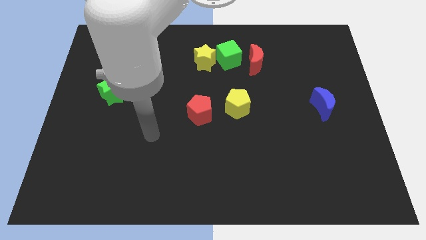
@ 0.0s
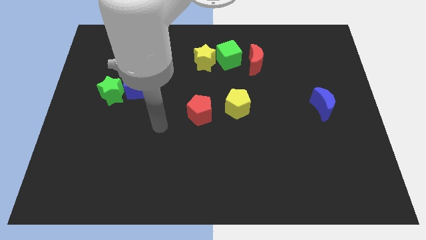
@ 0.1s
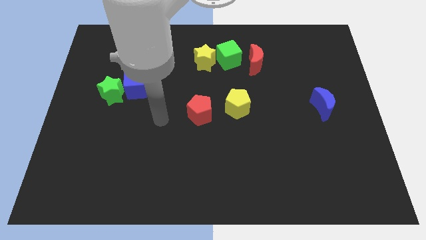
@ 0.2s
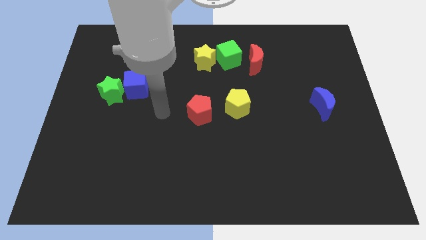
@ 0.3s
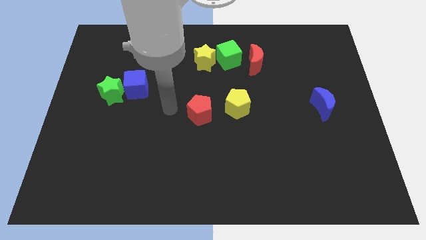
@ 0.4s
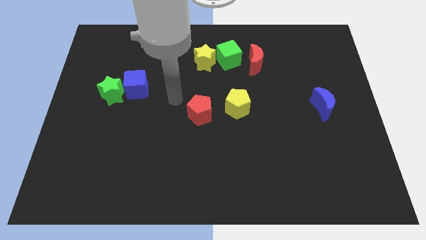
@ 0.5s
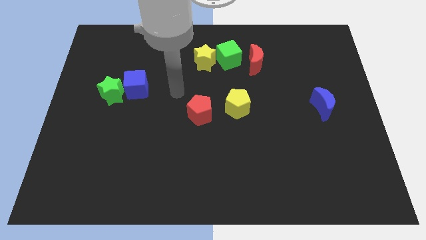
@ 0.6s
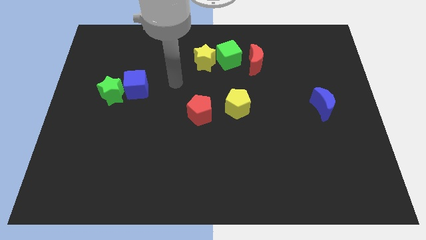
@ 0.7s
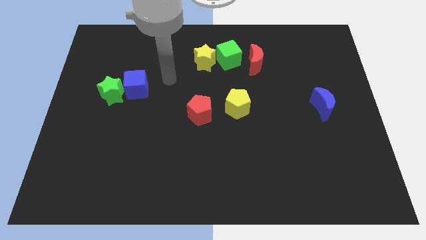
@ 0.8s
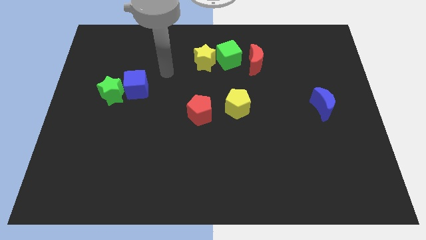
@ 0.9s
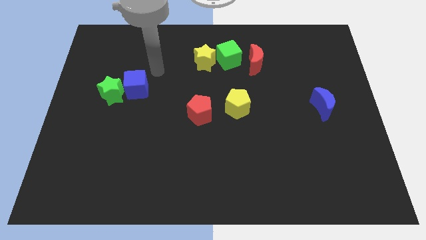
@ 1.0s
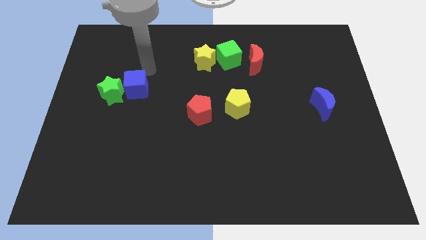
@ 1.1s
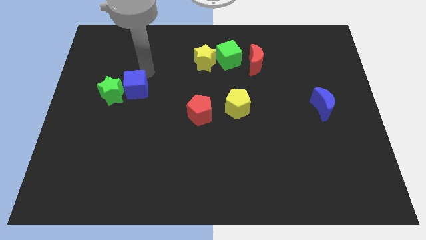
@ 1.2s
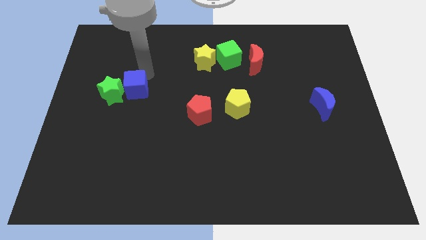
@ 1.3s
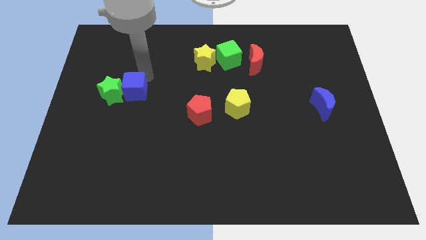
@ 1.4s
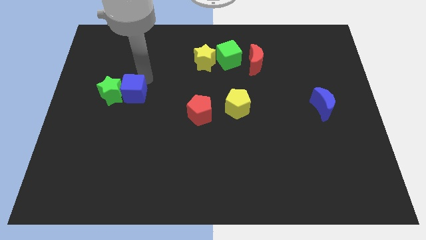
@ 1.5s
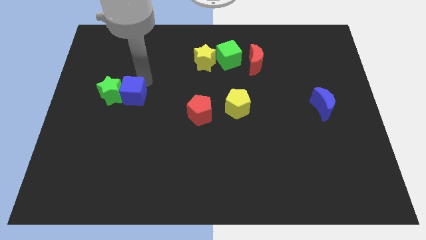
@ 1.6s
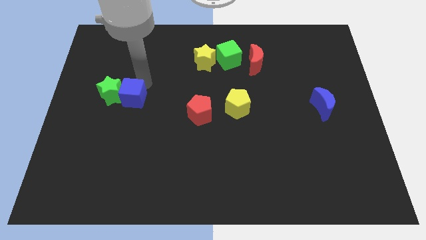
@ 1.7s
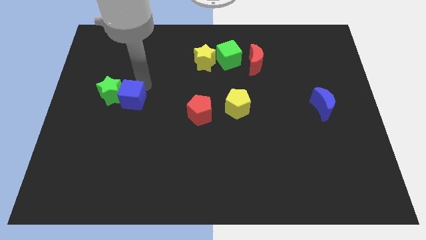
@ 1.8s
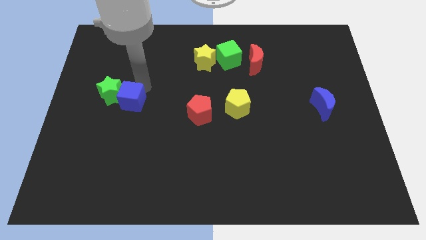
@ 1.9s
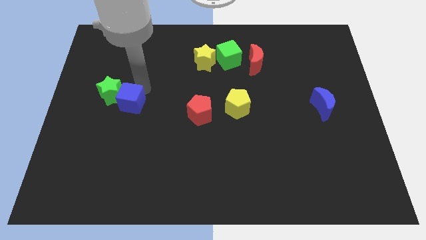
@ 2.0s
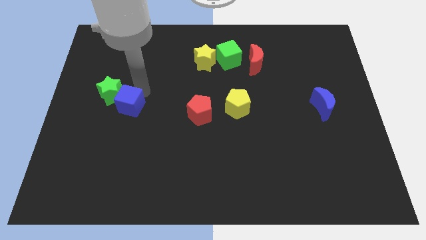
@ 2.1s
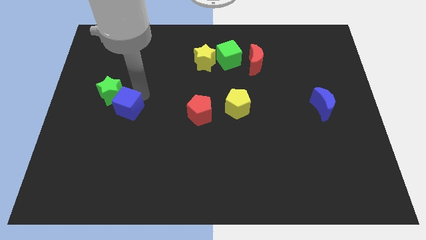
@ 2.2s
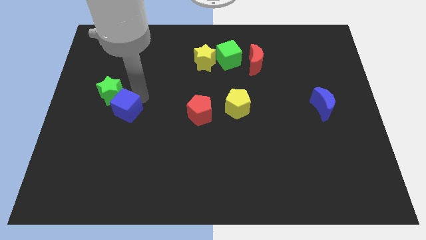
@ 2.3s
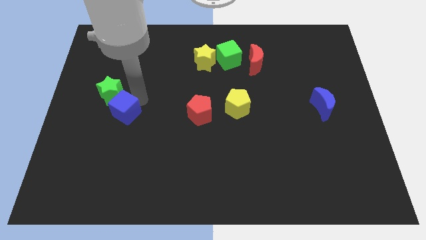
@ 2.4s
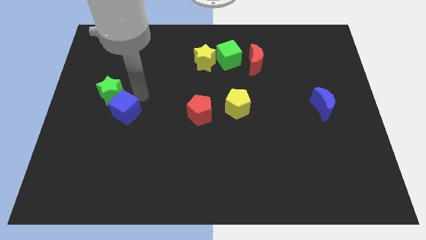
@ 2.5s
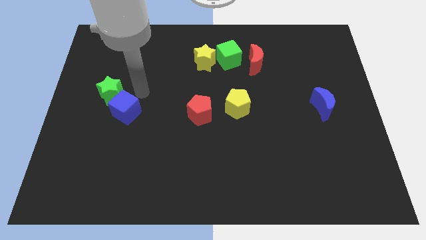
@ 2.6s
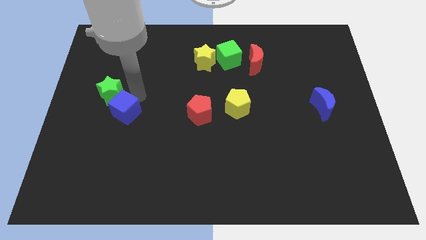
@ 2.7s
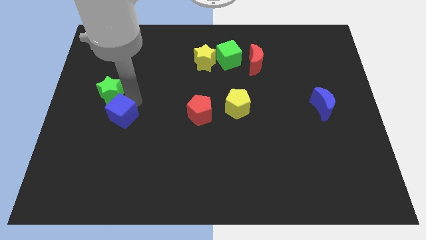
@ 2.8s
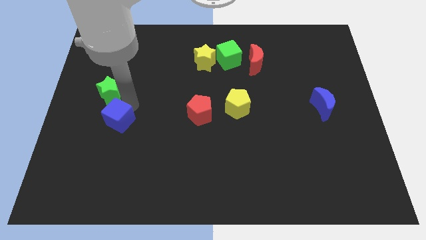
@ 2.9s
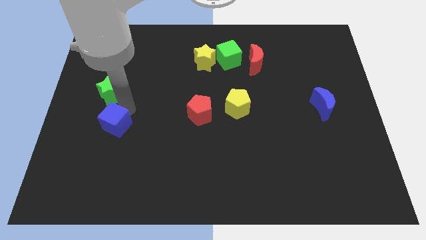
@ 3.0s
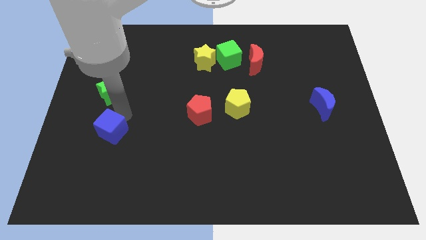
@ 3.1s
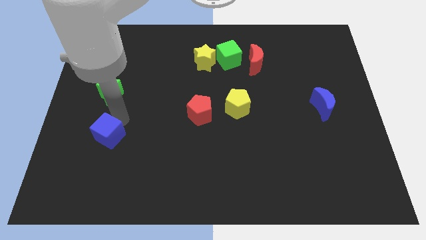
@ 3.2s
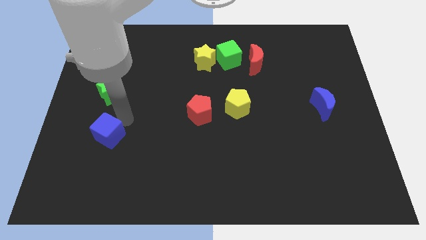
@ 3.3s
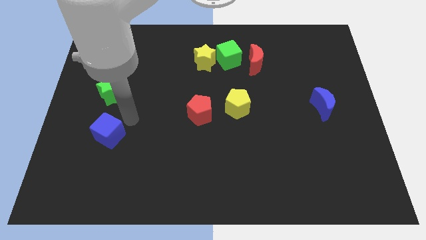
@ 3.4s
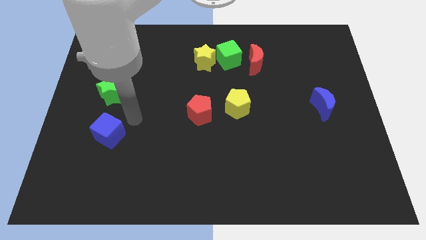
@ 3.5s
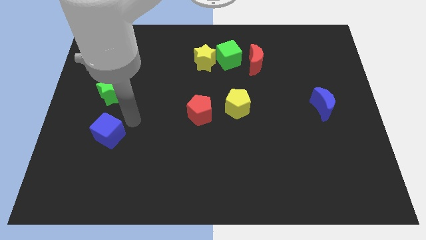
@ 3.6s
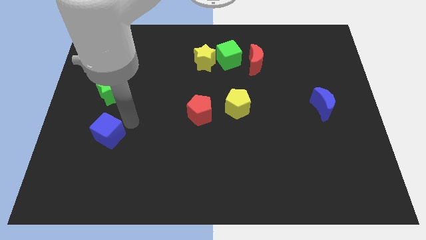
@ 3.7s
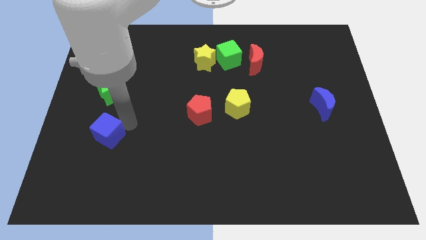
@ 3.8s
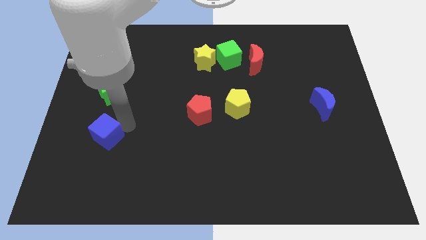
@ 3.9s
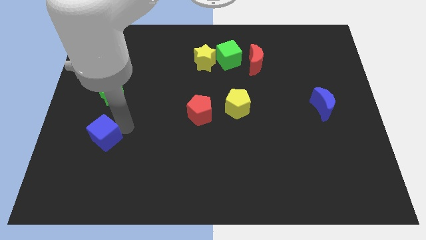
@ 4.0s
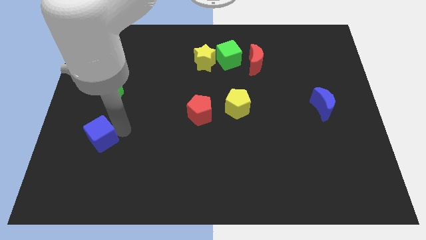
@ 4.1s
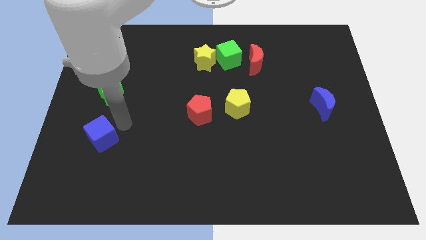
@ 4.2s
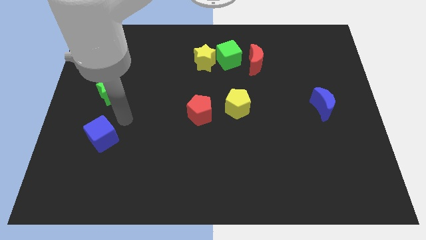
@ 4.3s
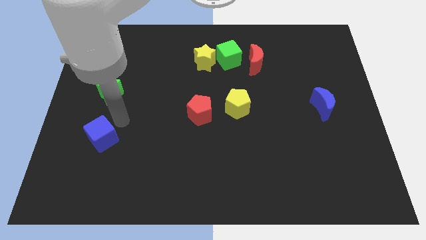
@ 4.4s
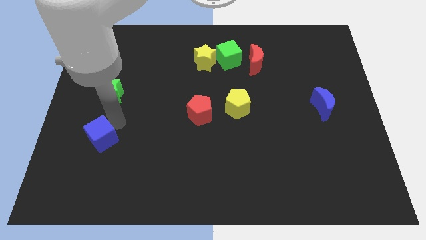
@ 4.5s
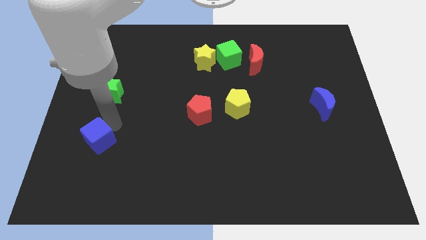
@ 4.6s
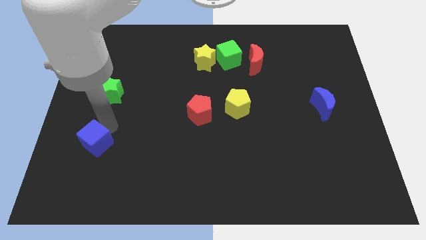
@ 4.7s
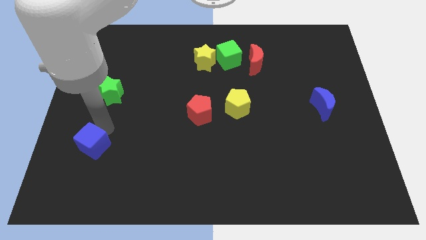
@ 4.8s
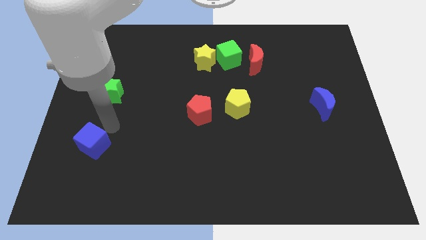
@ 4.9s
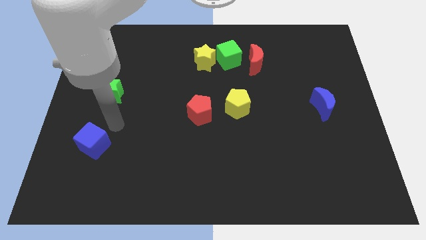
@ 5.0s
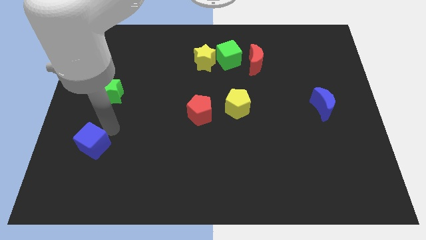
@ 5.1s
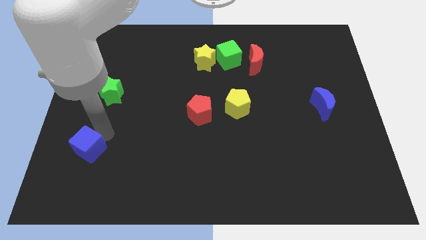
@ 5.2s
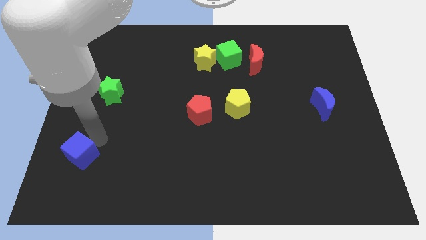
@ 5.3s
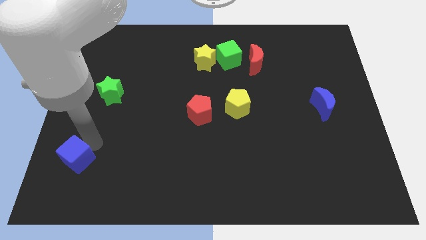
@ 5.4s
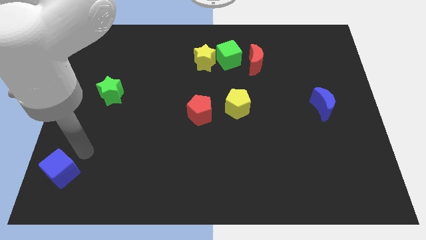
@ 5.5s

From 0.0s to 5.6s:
push the blue cube to the lower left corner

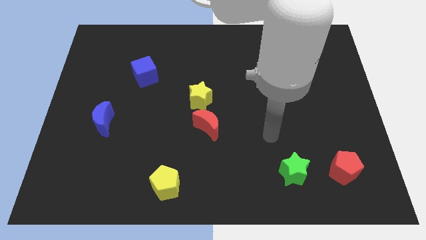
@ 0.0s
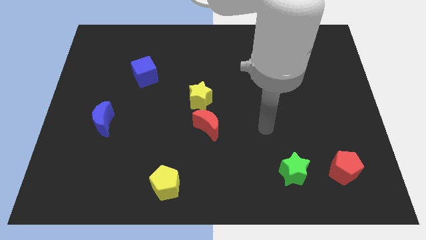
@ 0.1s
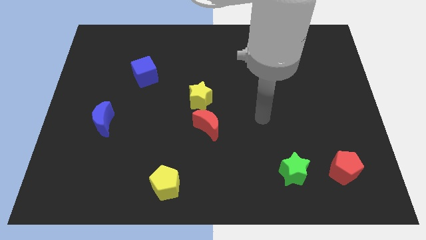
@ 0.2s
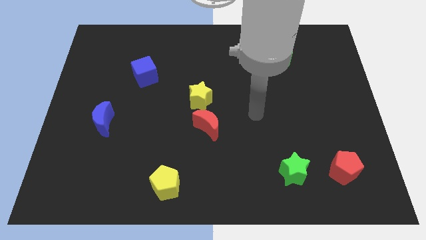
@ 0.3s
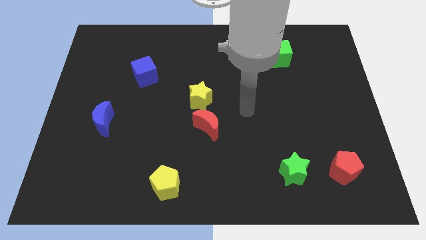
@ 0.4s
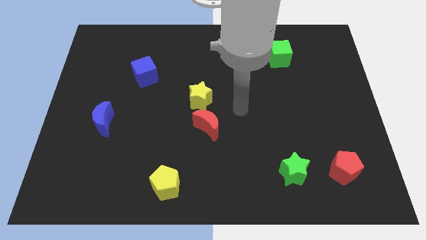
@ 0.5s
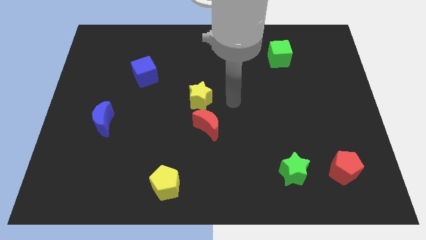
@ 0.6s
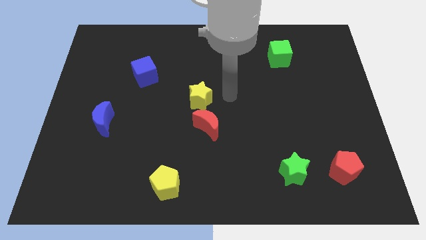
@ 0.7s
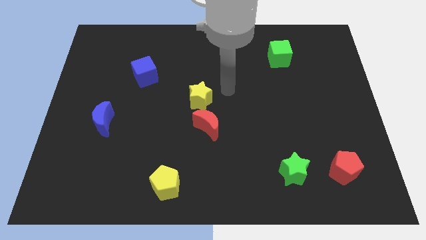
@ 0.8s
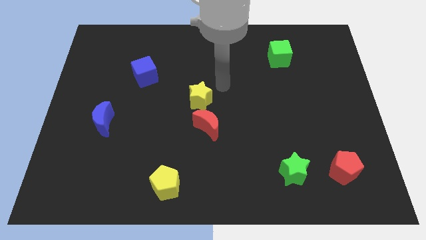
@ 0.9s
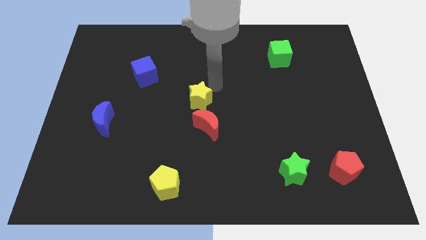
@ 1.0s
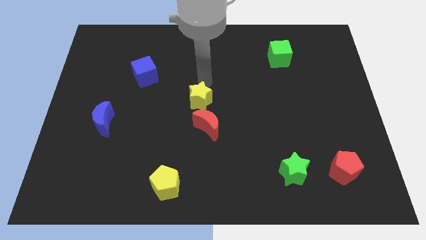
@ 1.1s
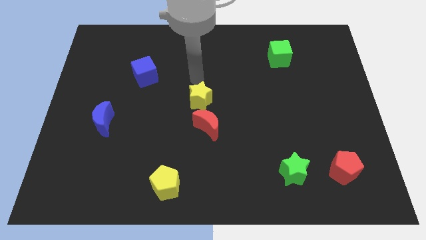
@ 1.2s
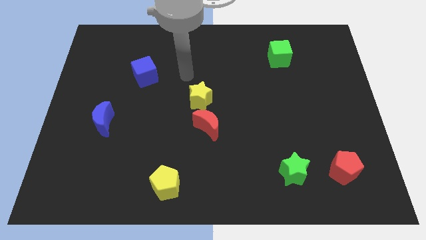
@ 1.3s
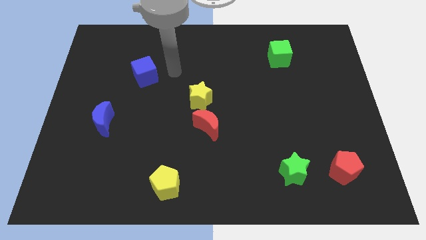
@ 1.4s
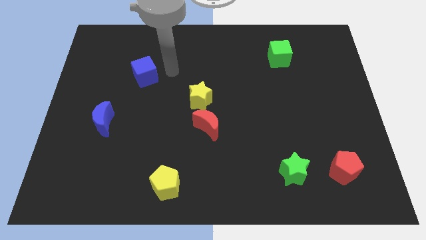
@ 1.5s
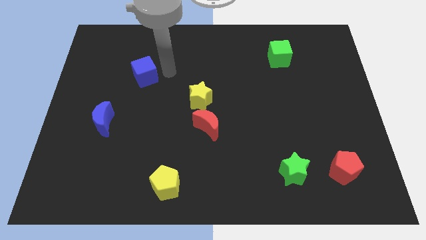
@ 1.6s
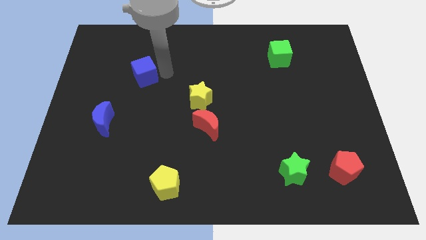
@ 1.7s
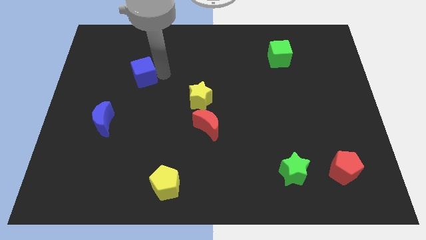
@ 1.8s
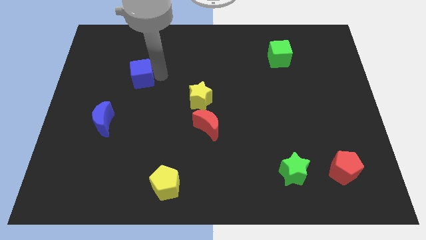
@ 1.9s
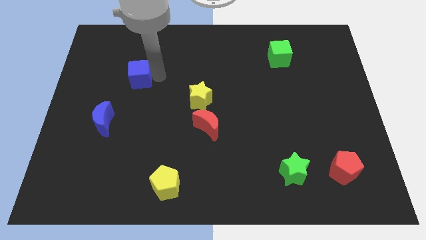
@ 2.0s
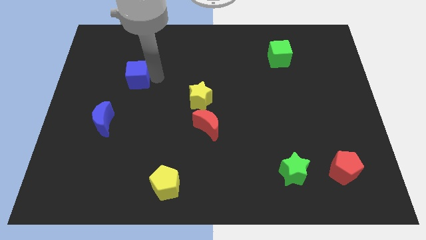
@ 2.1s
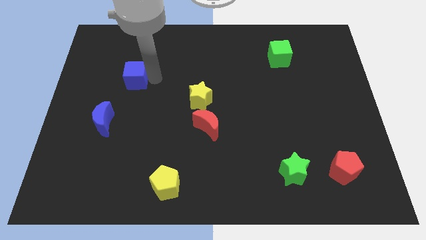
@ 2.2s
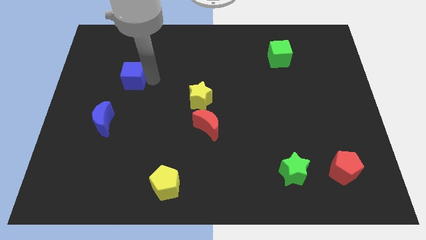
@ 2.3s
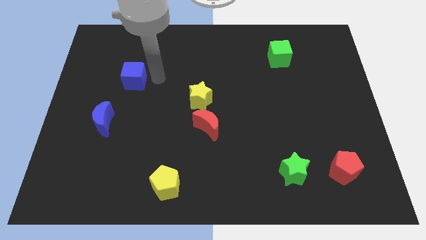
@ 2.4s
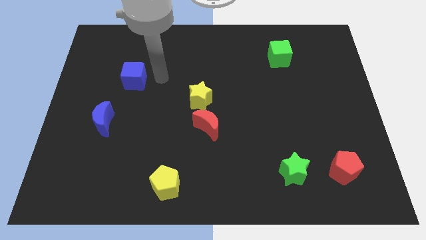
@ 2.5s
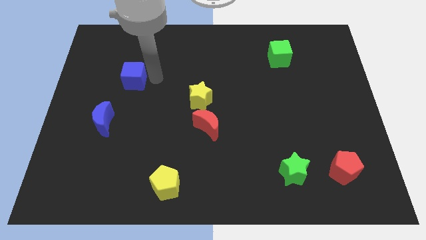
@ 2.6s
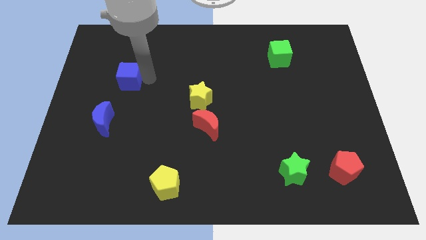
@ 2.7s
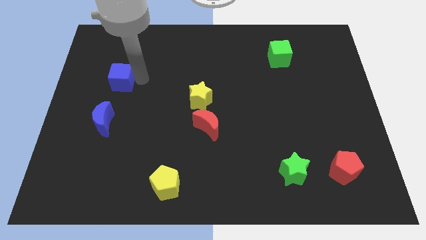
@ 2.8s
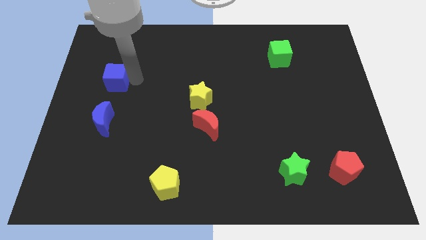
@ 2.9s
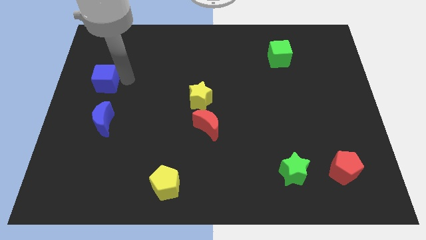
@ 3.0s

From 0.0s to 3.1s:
push the blue cube to the left side of the board
